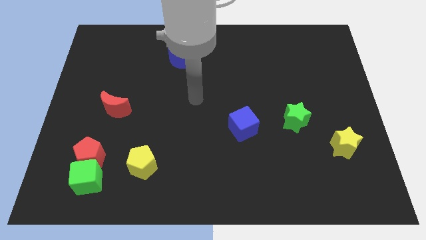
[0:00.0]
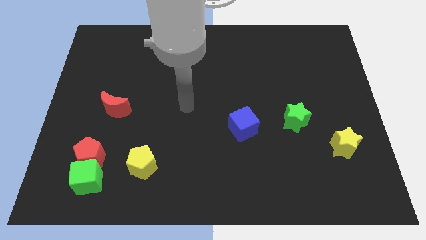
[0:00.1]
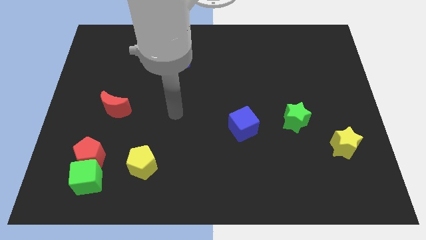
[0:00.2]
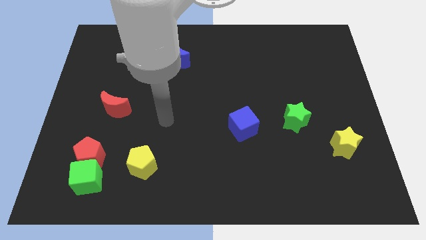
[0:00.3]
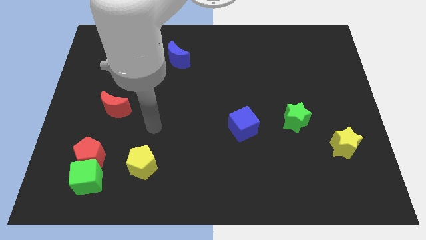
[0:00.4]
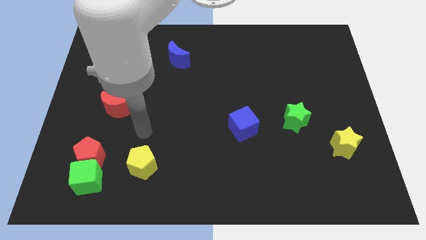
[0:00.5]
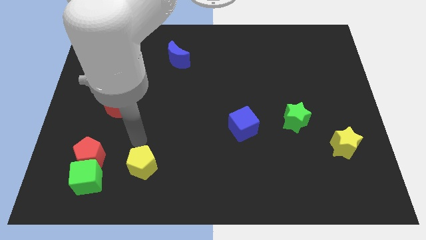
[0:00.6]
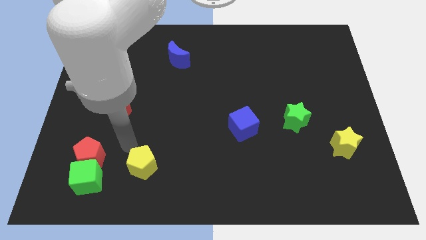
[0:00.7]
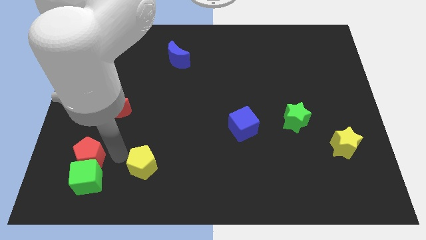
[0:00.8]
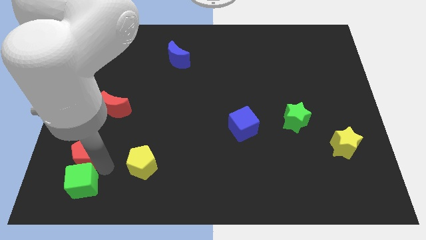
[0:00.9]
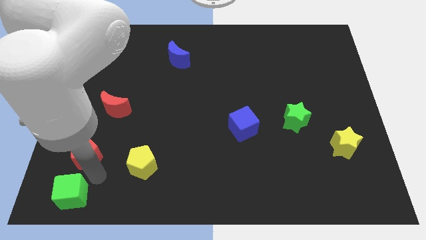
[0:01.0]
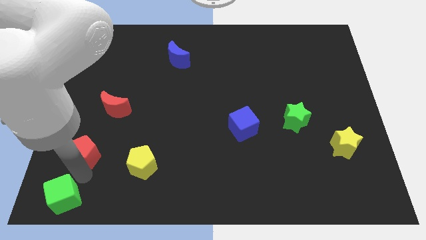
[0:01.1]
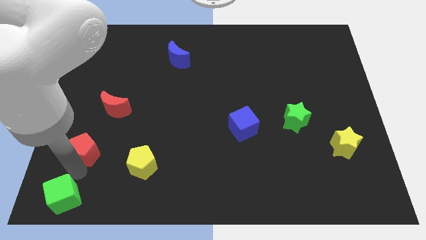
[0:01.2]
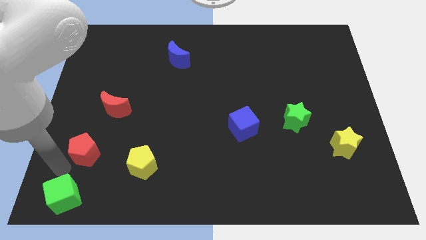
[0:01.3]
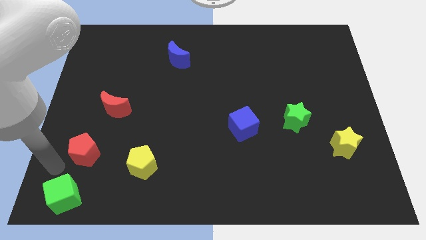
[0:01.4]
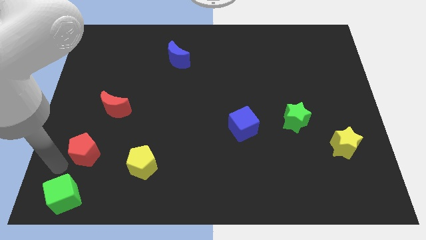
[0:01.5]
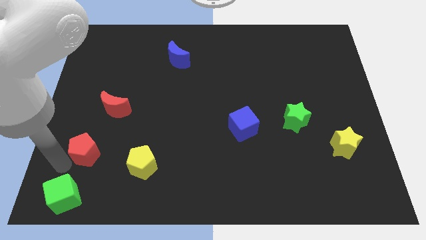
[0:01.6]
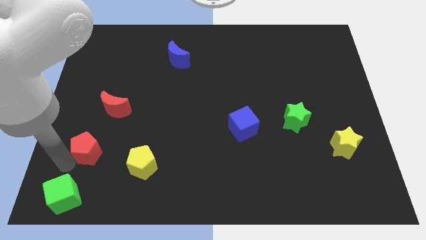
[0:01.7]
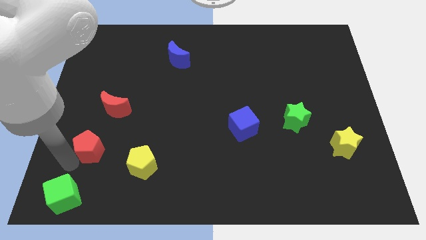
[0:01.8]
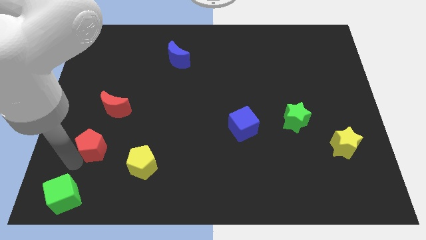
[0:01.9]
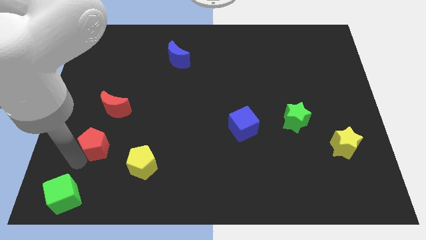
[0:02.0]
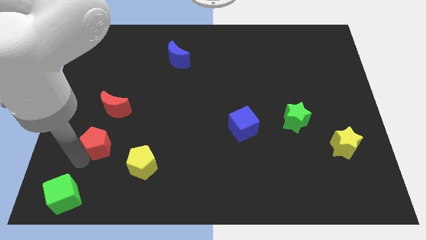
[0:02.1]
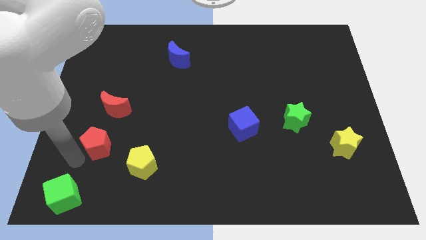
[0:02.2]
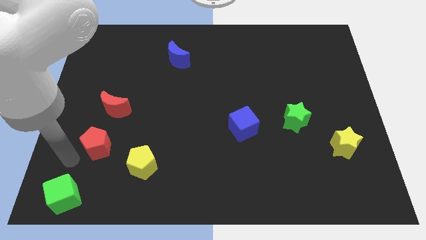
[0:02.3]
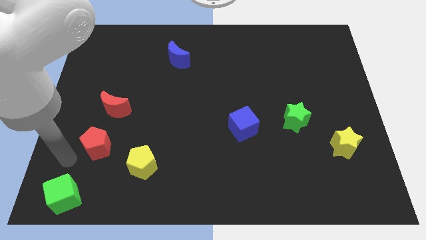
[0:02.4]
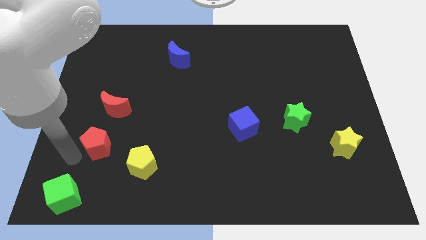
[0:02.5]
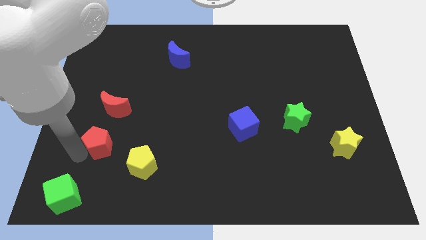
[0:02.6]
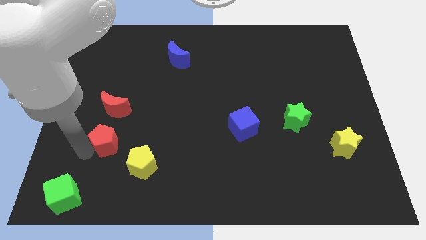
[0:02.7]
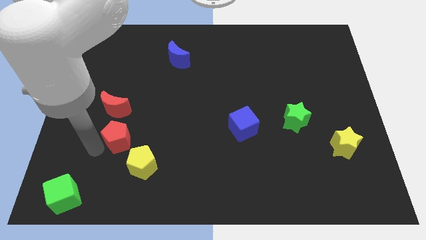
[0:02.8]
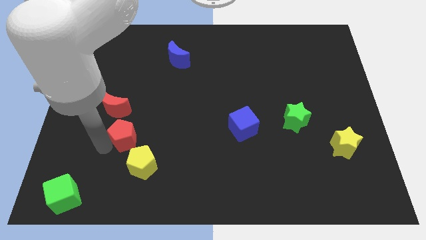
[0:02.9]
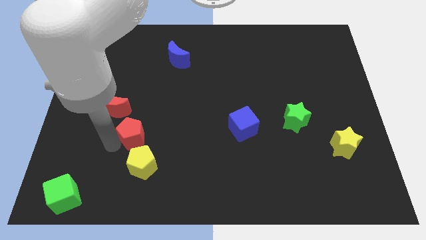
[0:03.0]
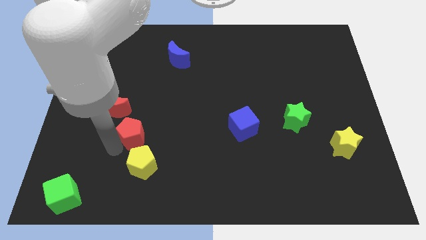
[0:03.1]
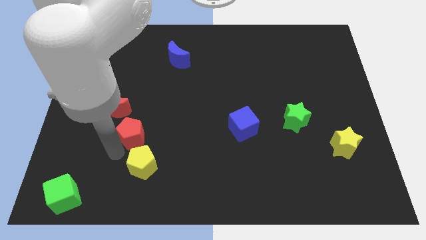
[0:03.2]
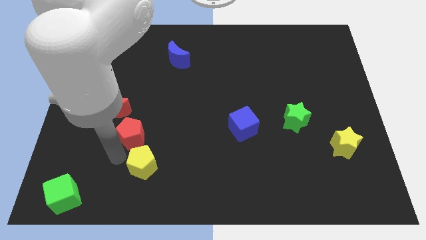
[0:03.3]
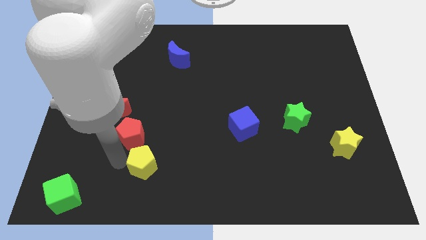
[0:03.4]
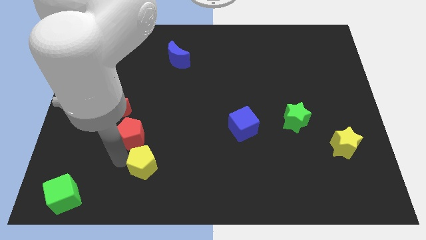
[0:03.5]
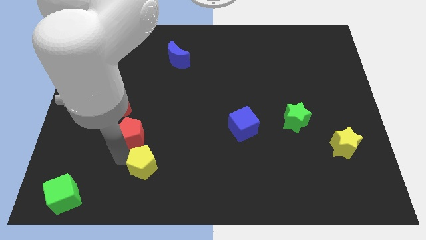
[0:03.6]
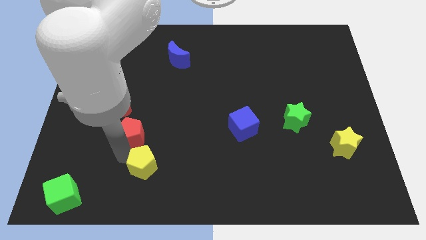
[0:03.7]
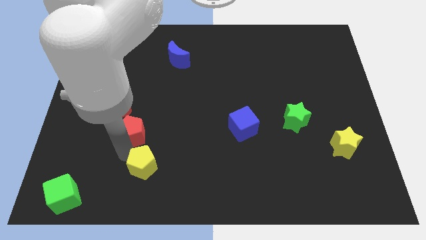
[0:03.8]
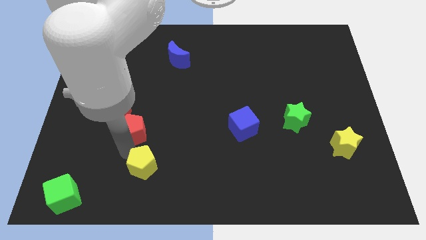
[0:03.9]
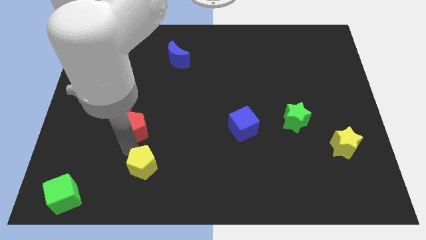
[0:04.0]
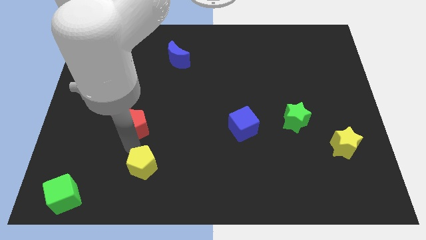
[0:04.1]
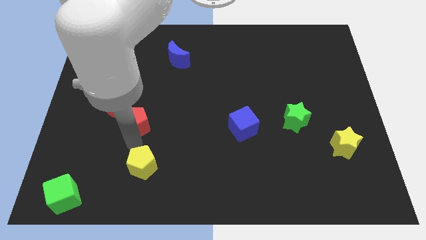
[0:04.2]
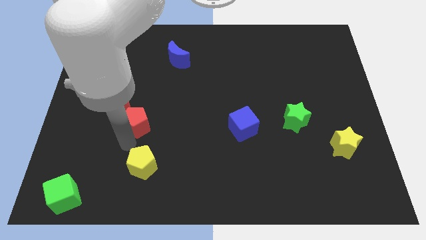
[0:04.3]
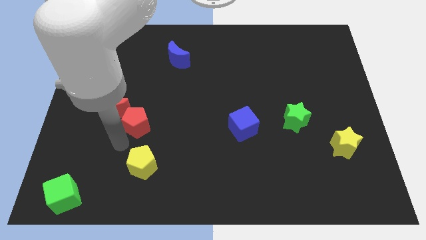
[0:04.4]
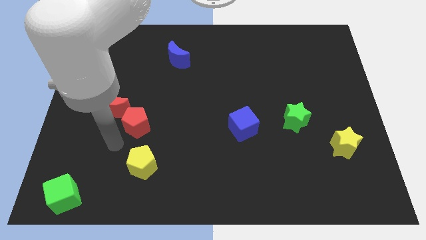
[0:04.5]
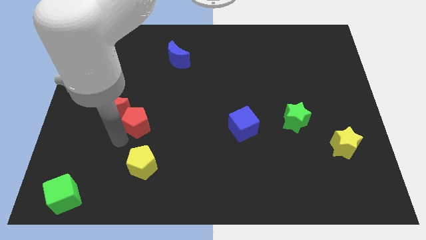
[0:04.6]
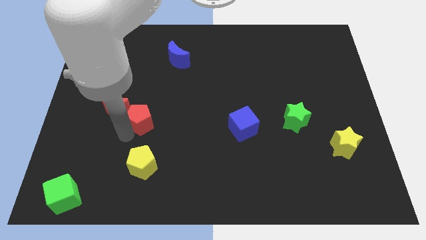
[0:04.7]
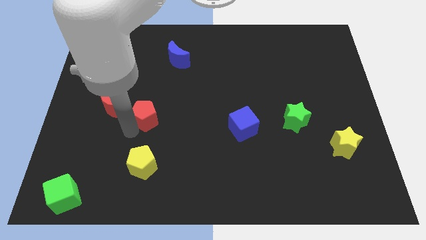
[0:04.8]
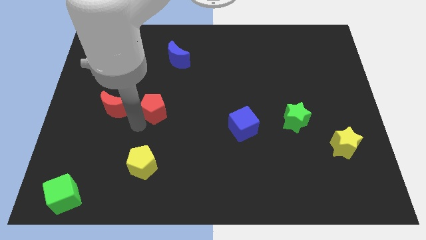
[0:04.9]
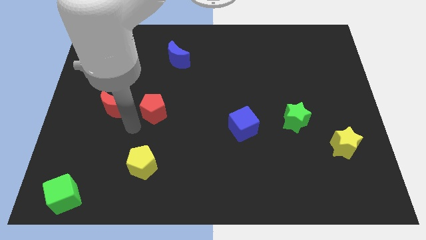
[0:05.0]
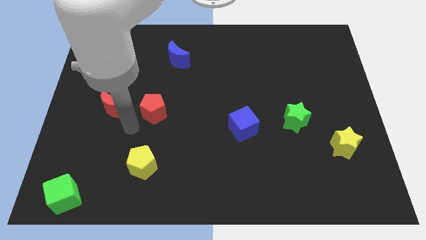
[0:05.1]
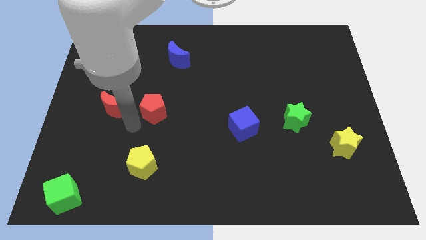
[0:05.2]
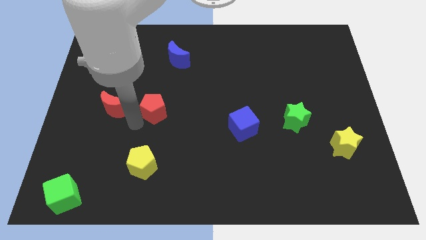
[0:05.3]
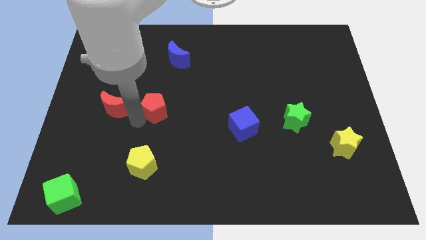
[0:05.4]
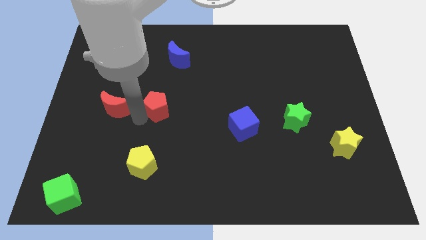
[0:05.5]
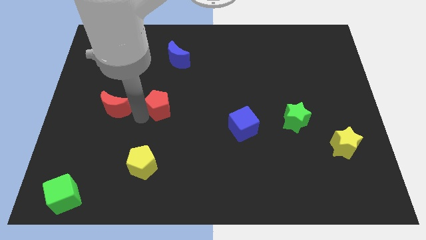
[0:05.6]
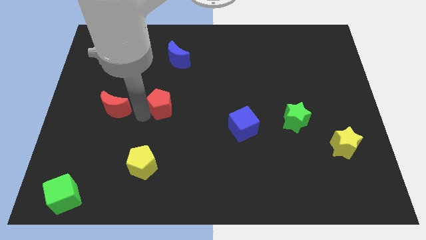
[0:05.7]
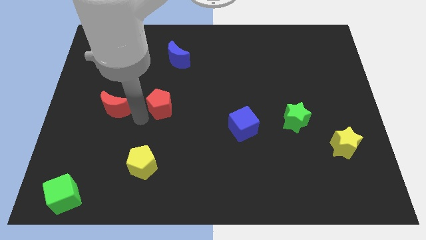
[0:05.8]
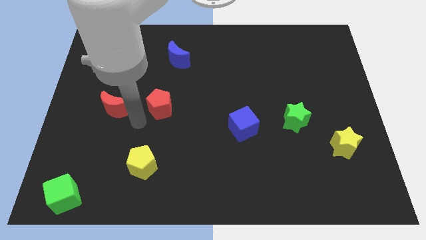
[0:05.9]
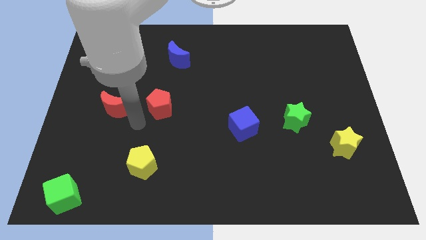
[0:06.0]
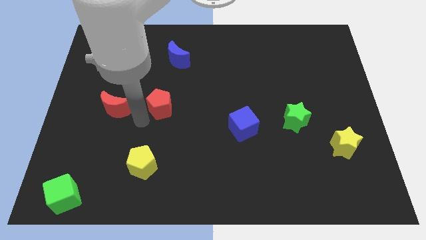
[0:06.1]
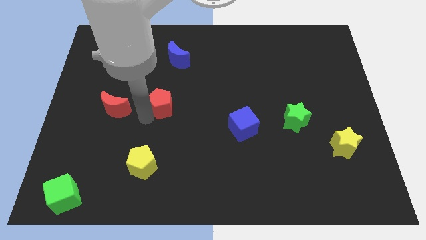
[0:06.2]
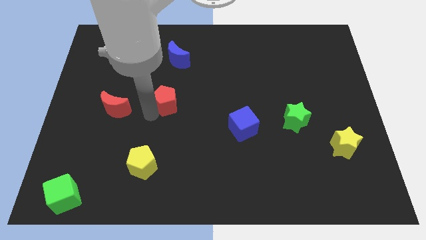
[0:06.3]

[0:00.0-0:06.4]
move the red pentagon upwards and right diagonally

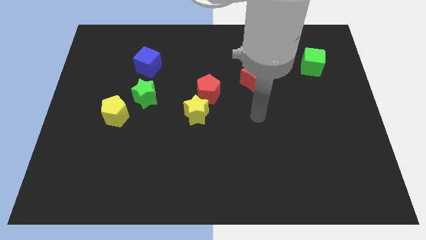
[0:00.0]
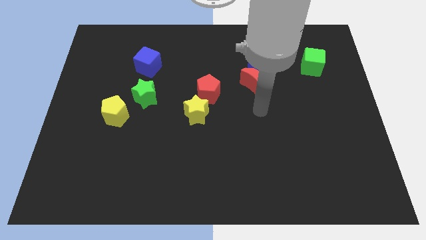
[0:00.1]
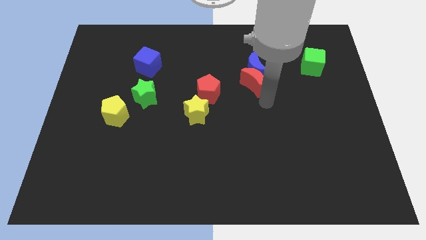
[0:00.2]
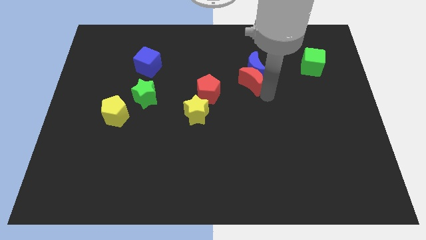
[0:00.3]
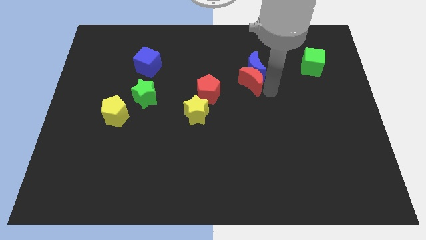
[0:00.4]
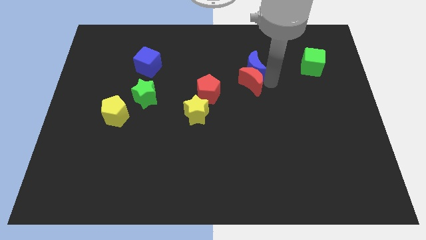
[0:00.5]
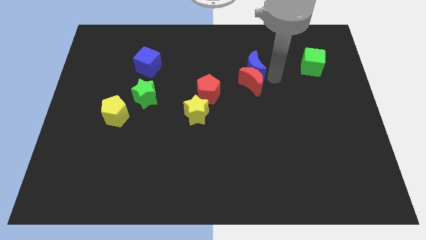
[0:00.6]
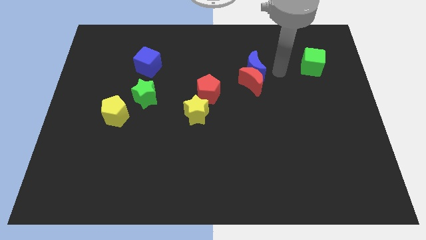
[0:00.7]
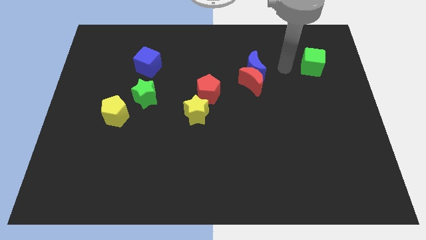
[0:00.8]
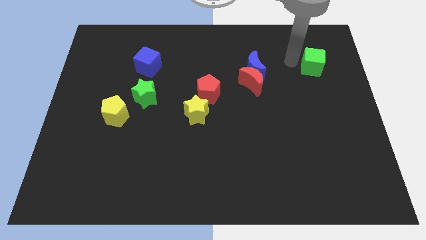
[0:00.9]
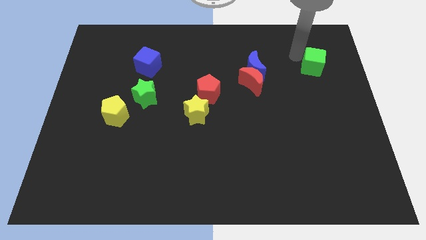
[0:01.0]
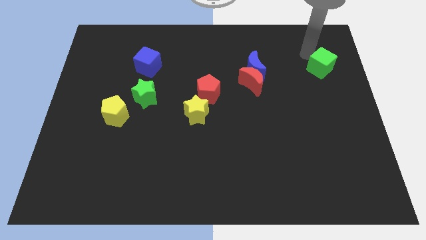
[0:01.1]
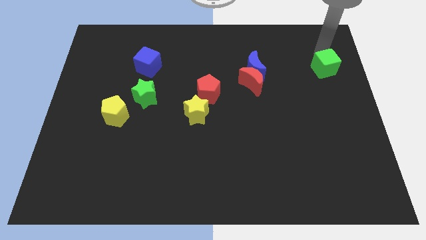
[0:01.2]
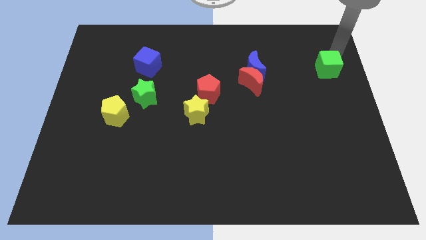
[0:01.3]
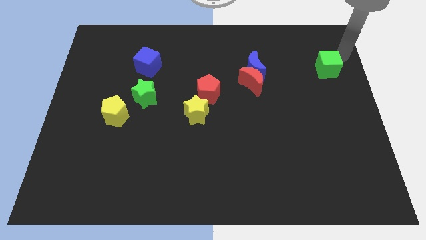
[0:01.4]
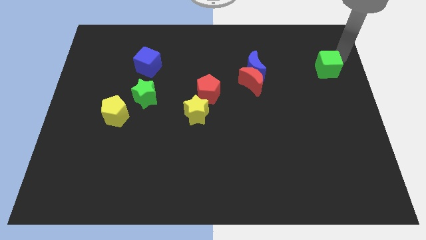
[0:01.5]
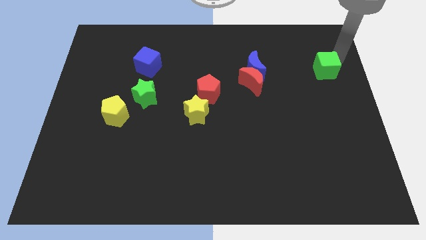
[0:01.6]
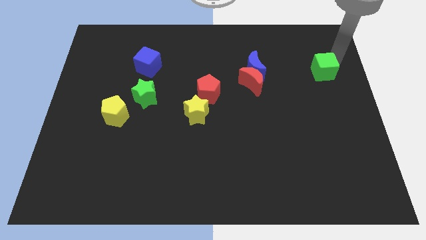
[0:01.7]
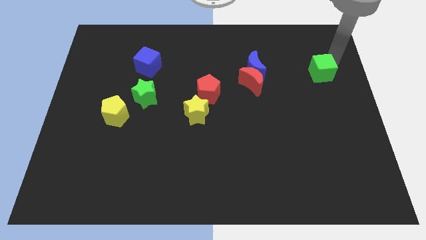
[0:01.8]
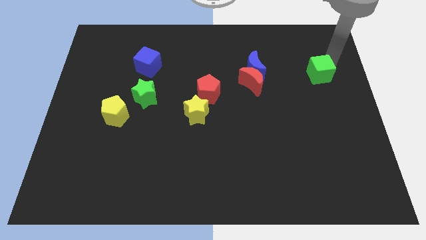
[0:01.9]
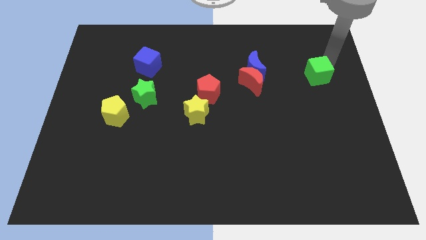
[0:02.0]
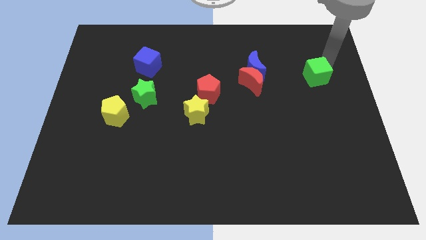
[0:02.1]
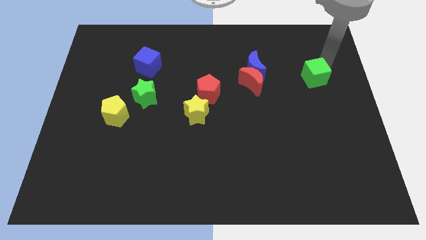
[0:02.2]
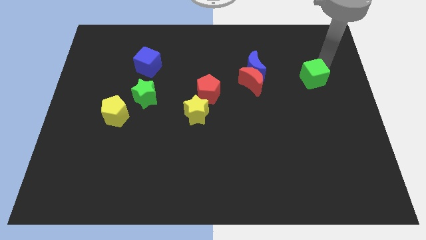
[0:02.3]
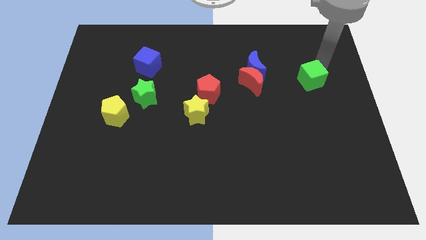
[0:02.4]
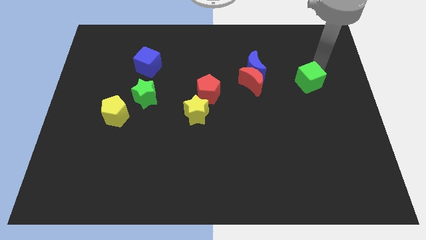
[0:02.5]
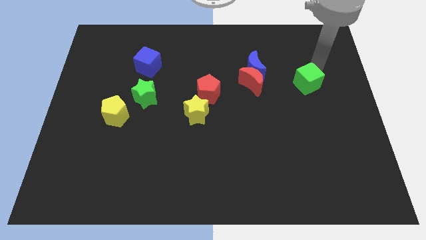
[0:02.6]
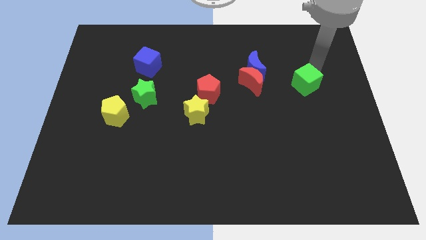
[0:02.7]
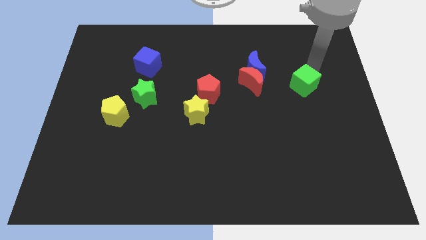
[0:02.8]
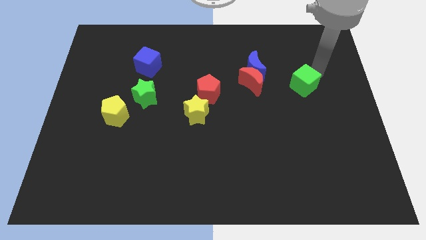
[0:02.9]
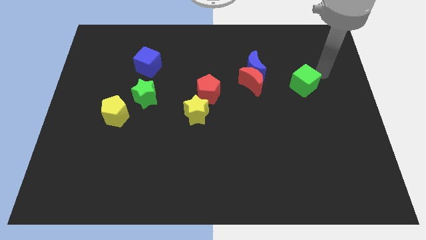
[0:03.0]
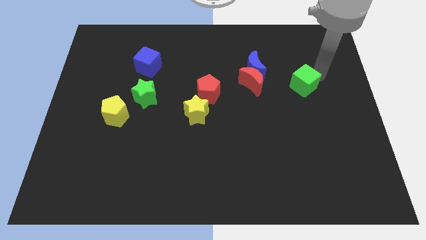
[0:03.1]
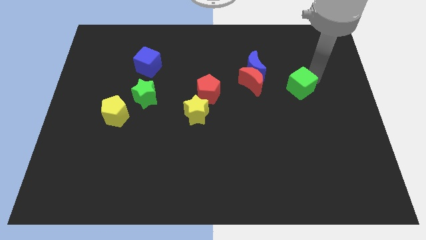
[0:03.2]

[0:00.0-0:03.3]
slide the green cube down and left diagonally somewhat
